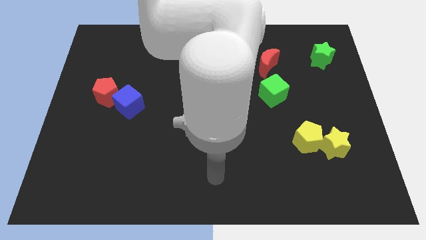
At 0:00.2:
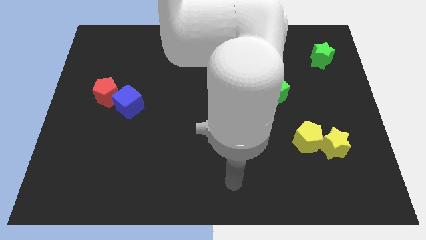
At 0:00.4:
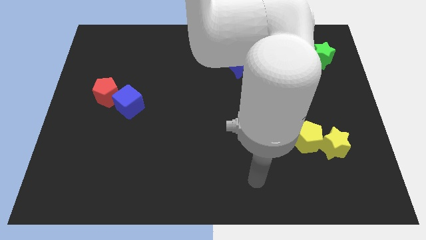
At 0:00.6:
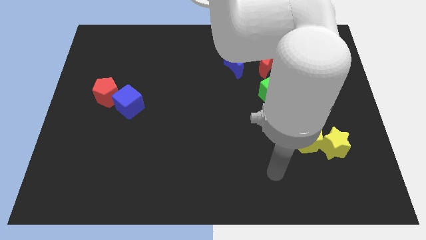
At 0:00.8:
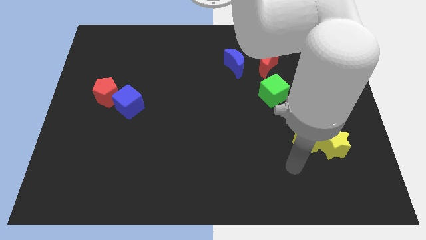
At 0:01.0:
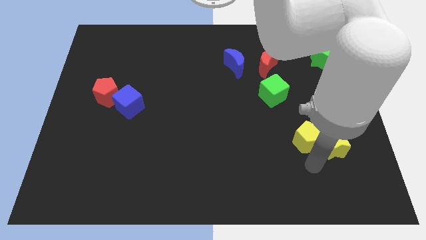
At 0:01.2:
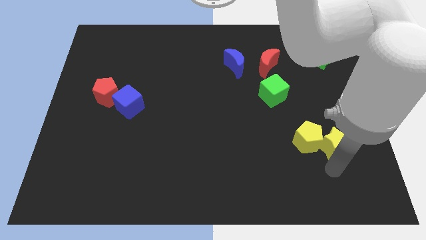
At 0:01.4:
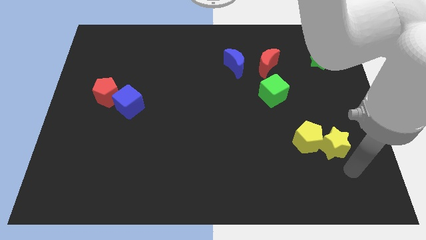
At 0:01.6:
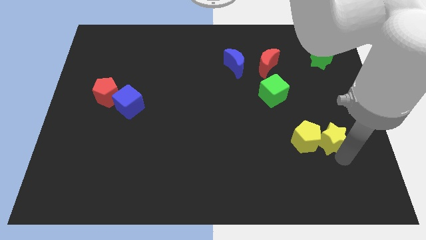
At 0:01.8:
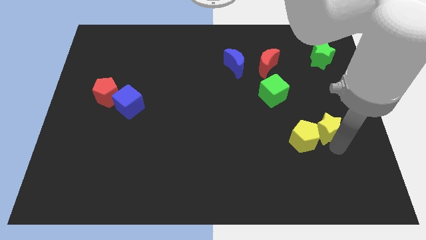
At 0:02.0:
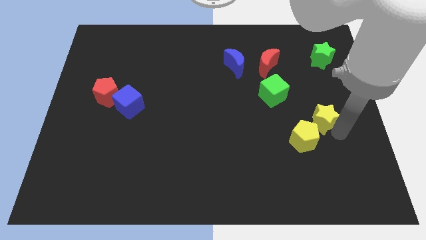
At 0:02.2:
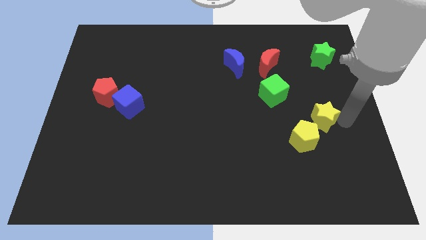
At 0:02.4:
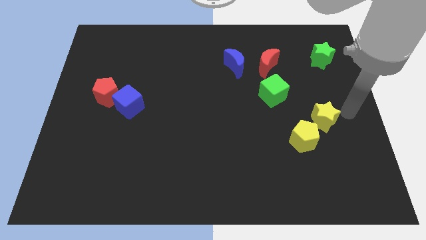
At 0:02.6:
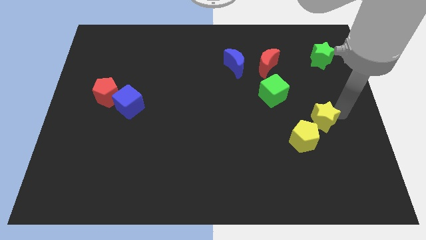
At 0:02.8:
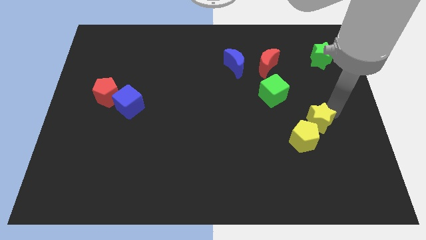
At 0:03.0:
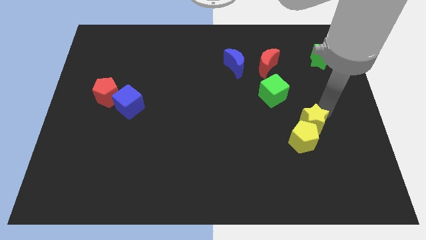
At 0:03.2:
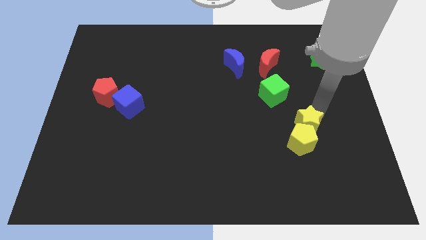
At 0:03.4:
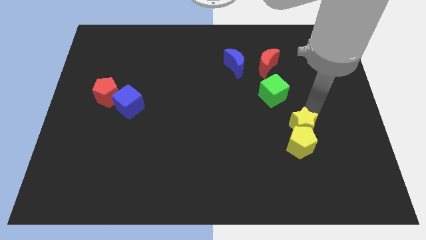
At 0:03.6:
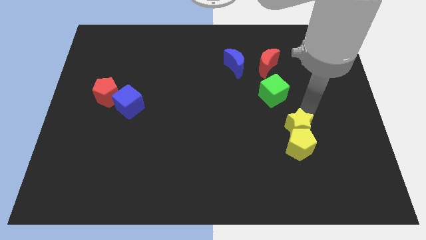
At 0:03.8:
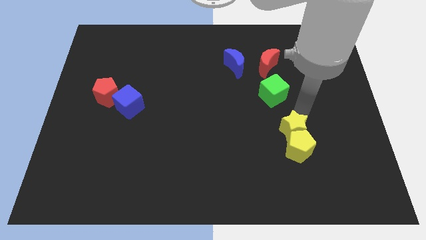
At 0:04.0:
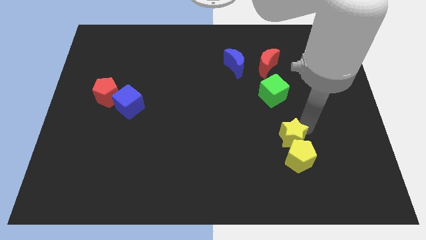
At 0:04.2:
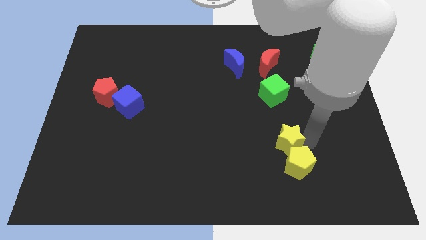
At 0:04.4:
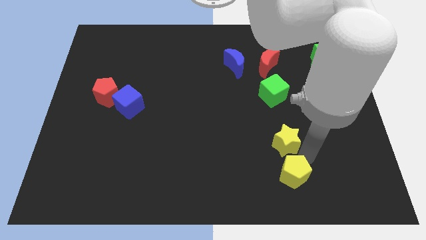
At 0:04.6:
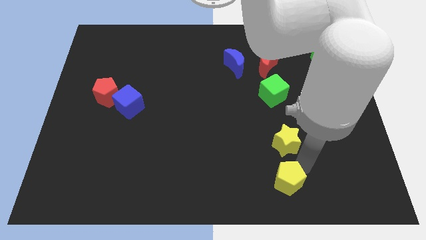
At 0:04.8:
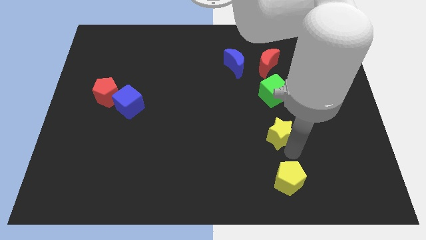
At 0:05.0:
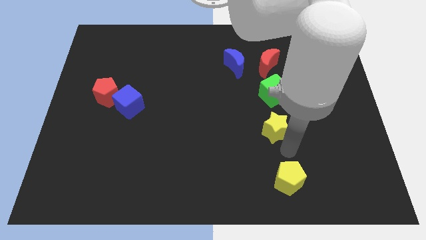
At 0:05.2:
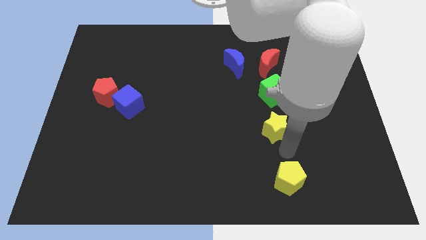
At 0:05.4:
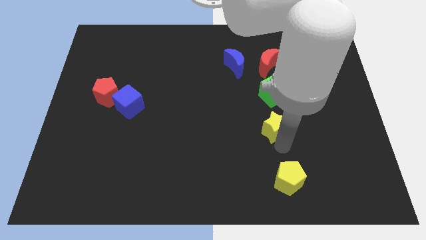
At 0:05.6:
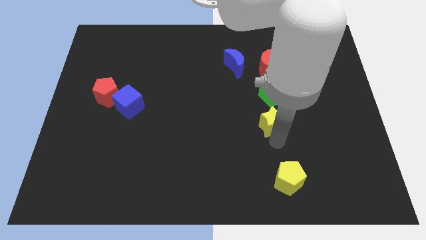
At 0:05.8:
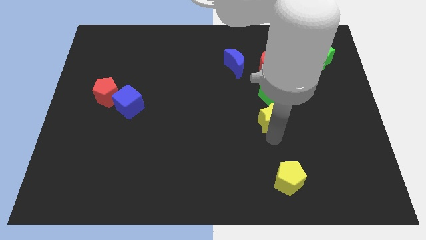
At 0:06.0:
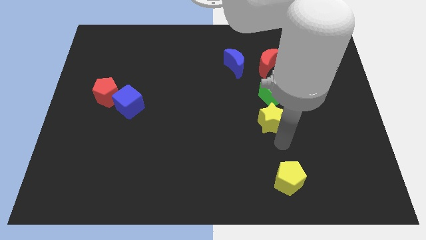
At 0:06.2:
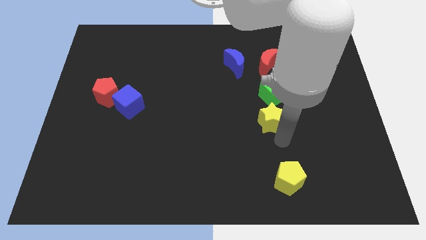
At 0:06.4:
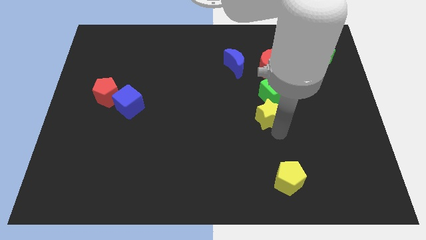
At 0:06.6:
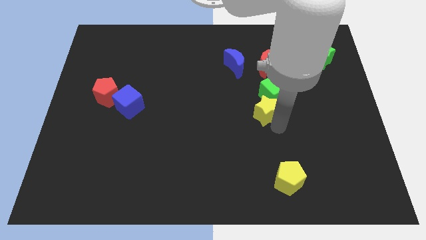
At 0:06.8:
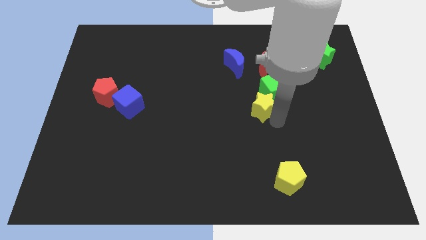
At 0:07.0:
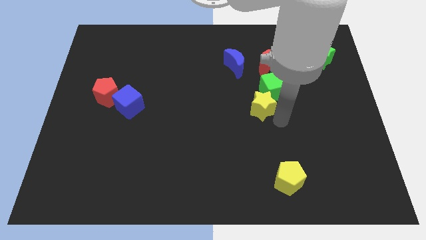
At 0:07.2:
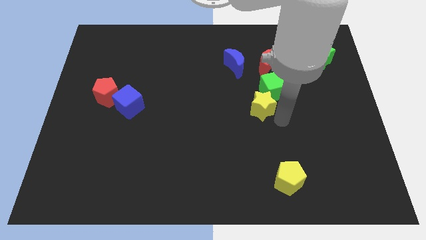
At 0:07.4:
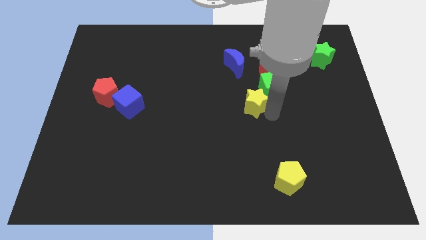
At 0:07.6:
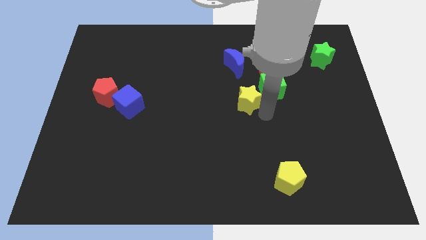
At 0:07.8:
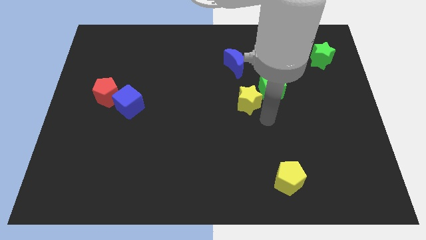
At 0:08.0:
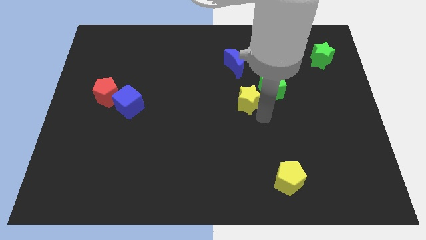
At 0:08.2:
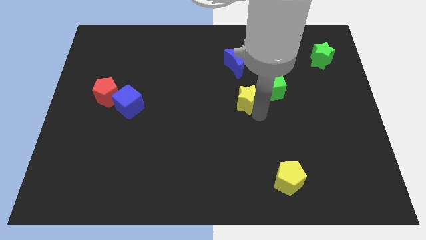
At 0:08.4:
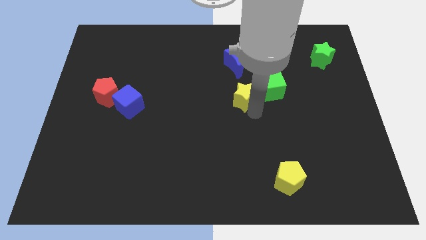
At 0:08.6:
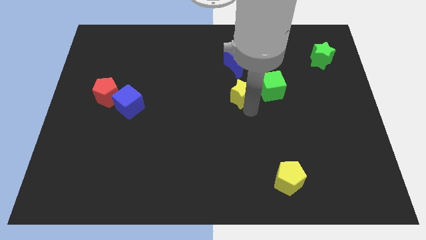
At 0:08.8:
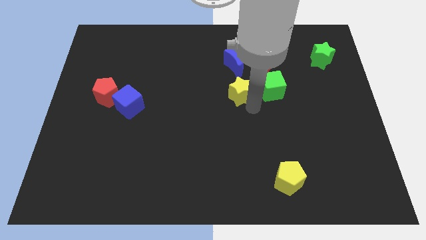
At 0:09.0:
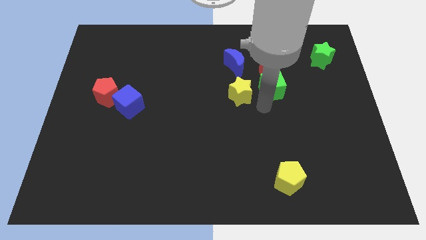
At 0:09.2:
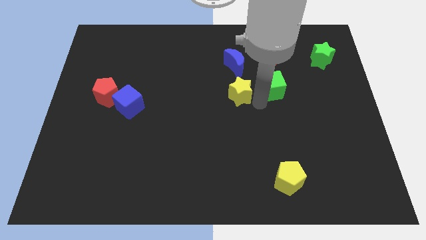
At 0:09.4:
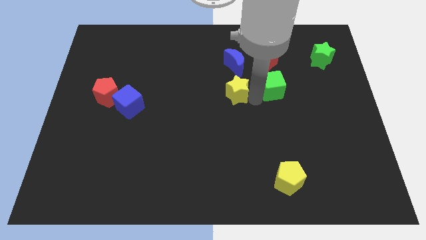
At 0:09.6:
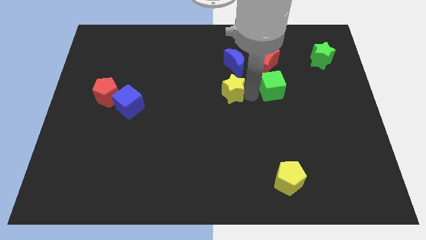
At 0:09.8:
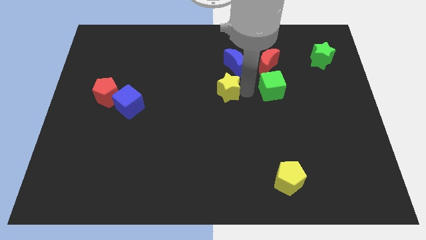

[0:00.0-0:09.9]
push the yellow star to the bottom left side of the blue moon

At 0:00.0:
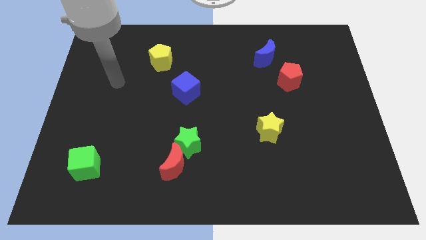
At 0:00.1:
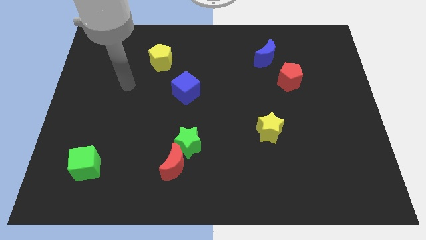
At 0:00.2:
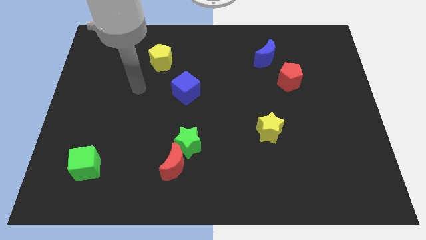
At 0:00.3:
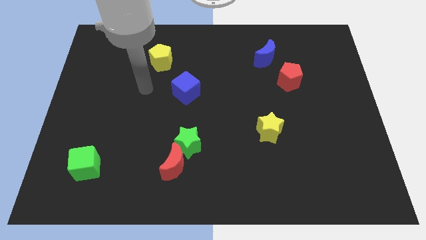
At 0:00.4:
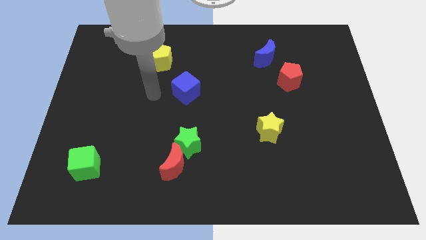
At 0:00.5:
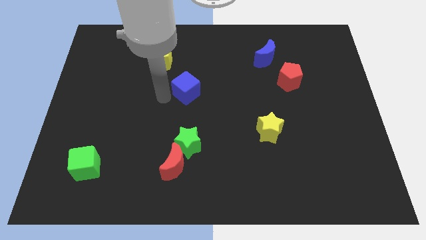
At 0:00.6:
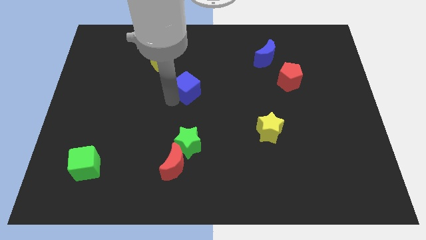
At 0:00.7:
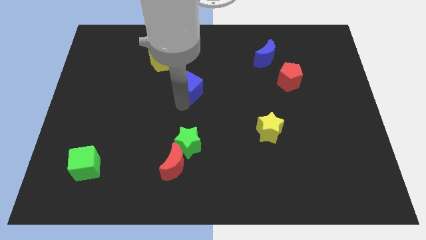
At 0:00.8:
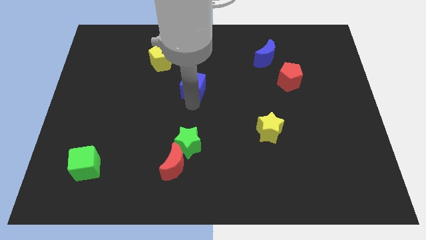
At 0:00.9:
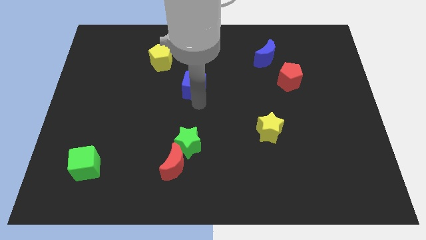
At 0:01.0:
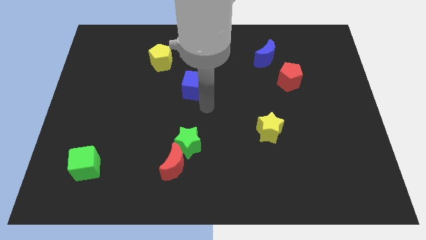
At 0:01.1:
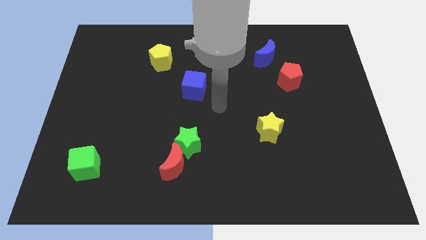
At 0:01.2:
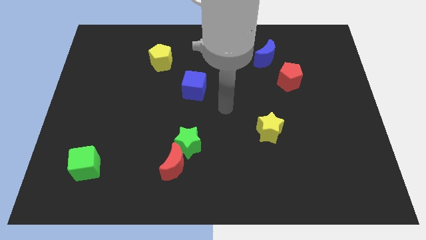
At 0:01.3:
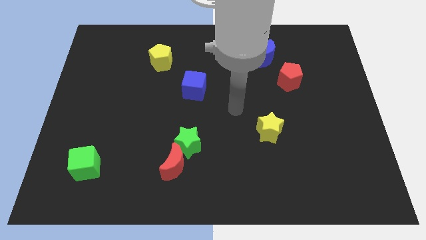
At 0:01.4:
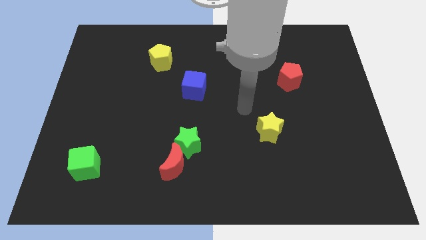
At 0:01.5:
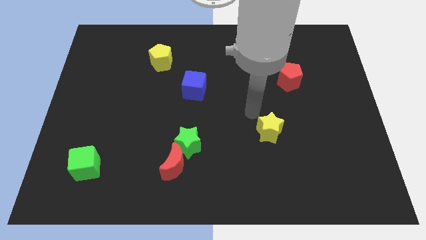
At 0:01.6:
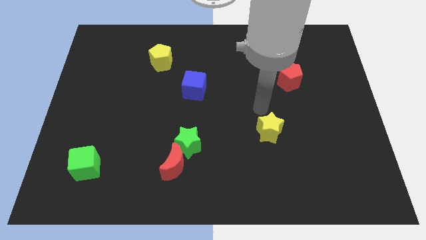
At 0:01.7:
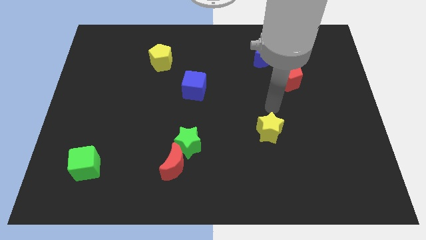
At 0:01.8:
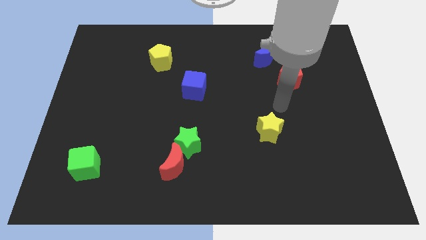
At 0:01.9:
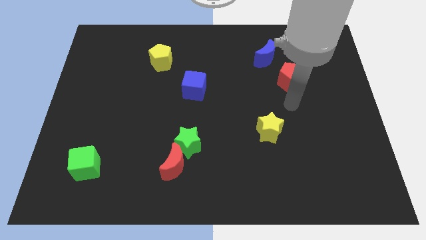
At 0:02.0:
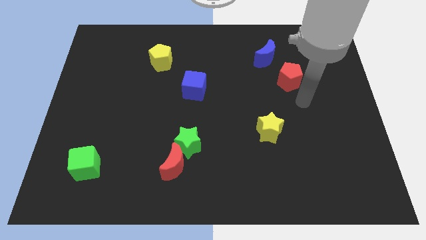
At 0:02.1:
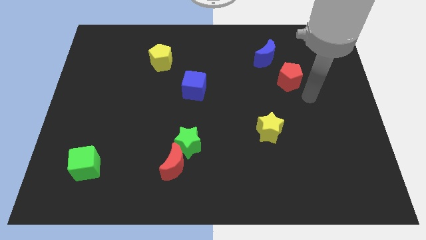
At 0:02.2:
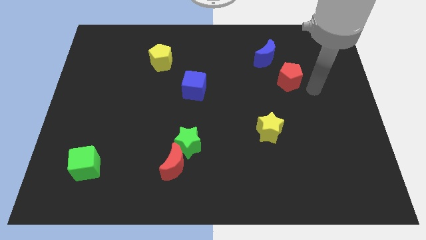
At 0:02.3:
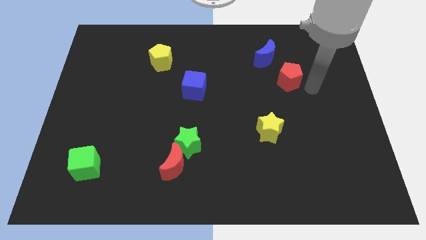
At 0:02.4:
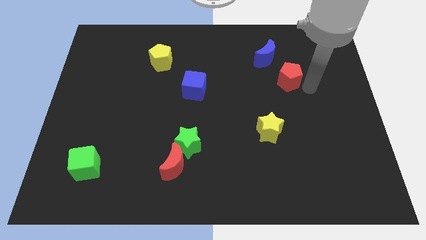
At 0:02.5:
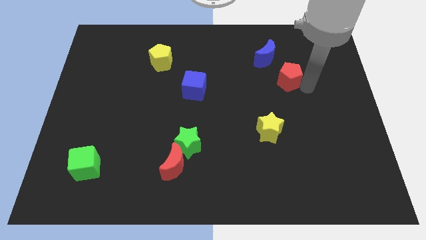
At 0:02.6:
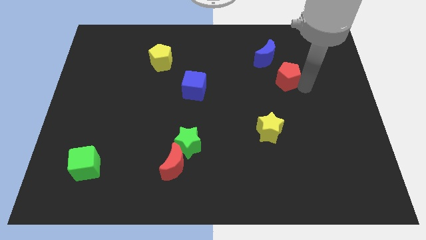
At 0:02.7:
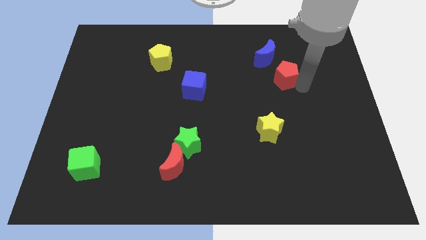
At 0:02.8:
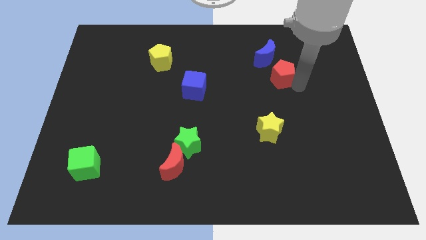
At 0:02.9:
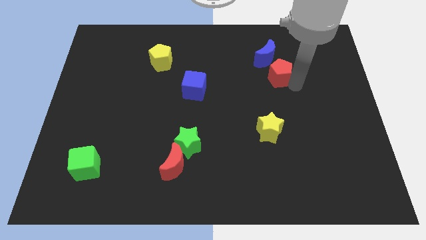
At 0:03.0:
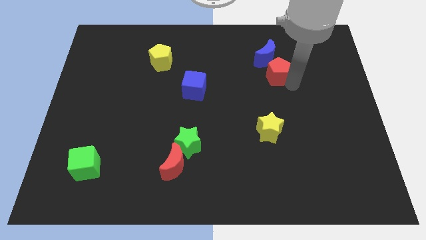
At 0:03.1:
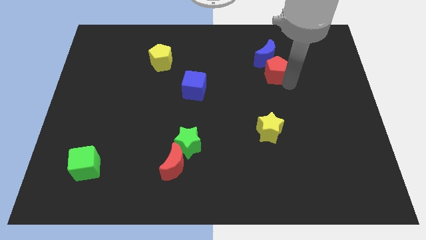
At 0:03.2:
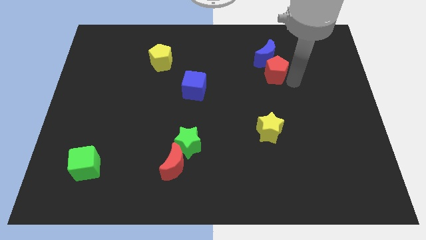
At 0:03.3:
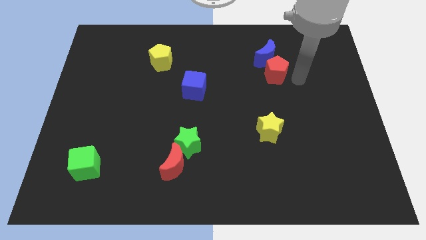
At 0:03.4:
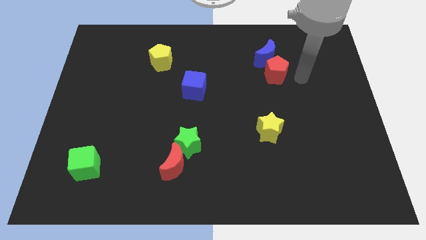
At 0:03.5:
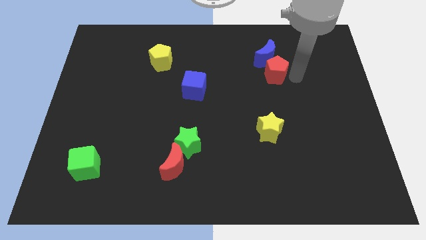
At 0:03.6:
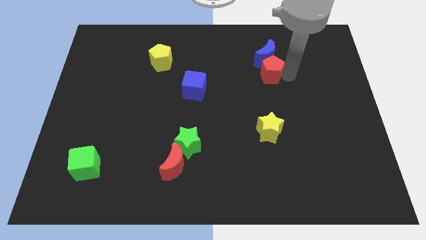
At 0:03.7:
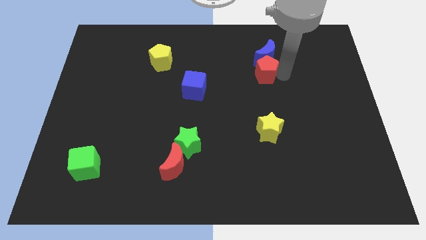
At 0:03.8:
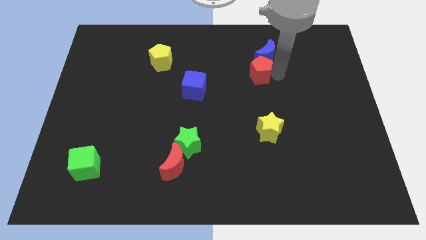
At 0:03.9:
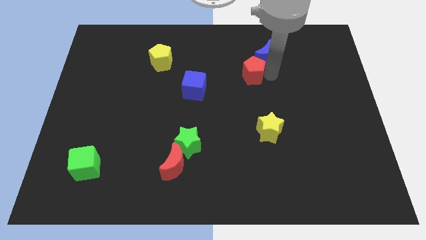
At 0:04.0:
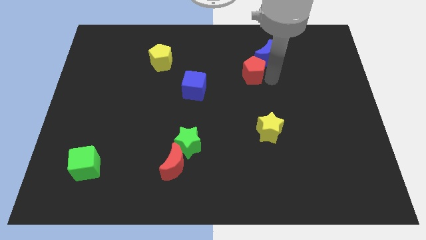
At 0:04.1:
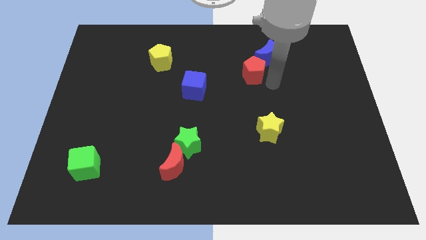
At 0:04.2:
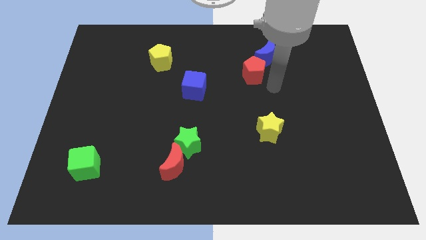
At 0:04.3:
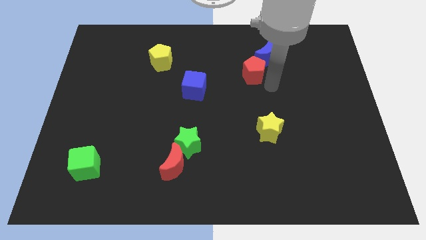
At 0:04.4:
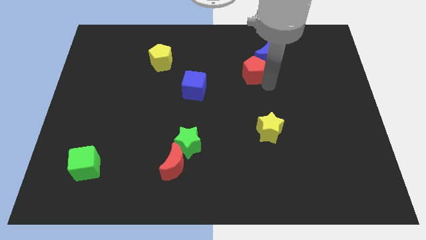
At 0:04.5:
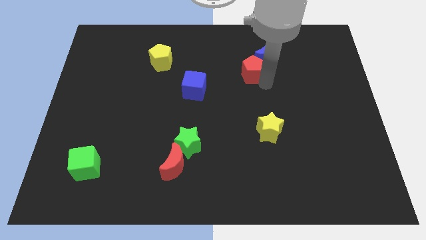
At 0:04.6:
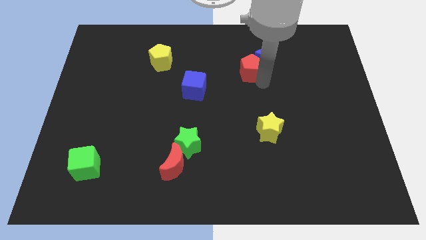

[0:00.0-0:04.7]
slide the red pentagon to the left side of the blue moon
